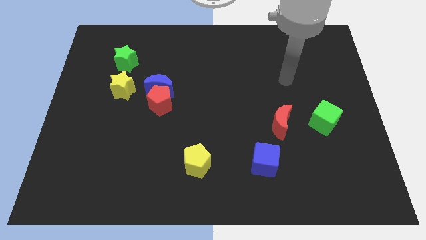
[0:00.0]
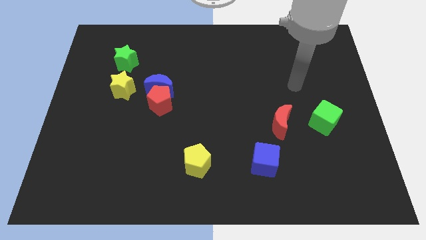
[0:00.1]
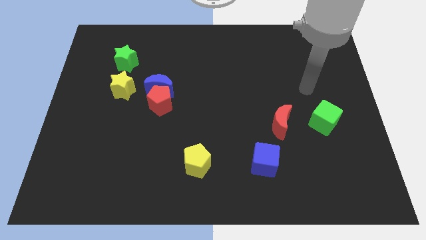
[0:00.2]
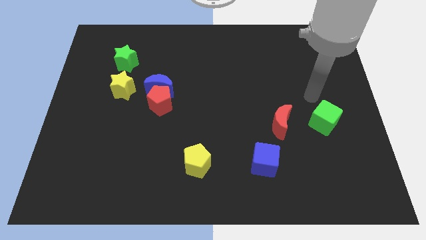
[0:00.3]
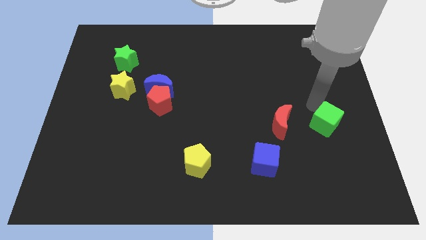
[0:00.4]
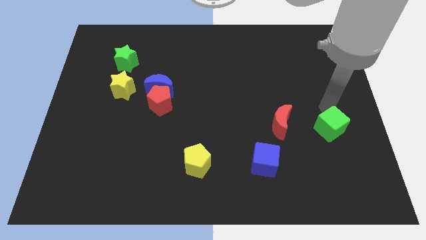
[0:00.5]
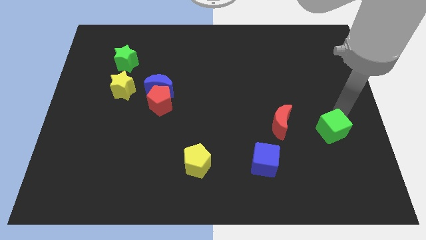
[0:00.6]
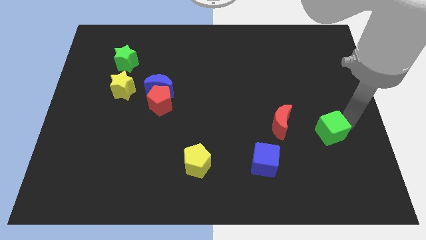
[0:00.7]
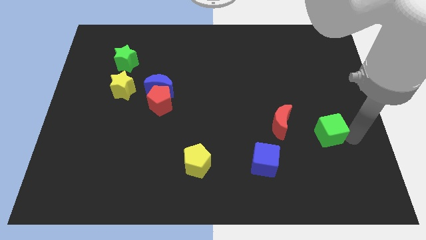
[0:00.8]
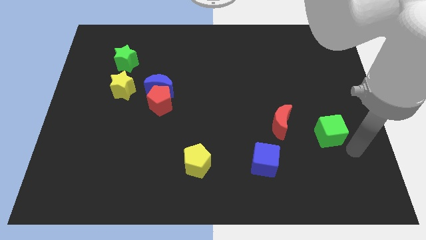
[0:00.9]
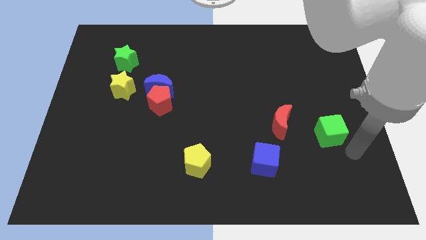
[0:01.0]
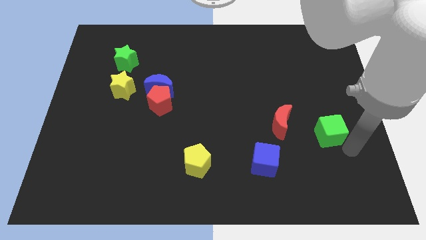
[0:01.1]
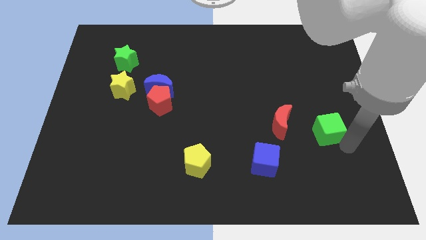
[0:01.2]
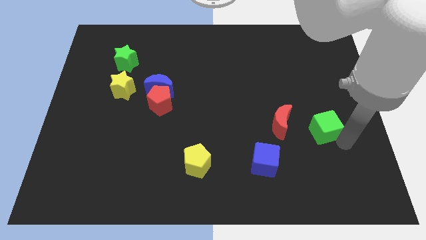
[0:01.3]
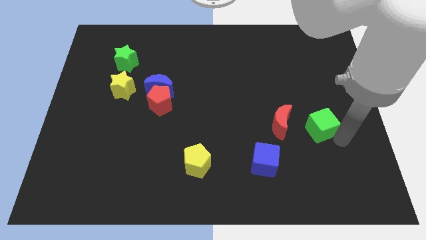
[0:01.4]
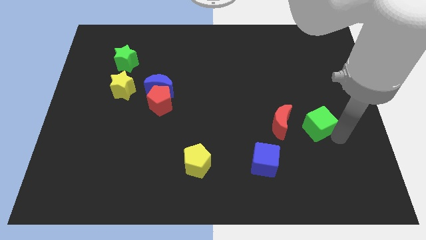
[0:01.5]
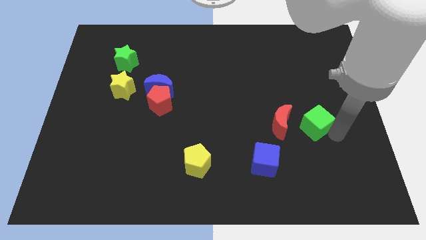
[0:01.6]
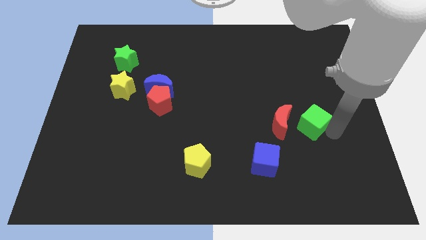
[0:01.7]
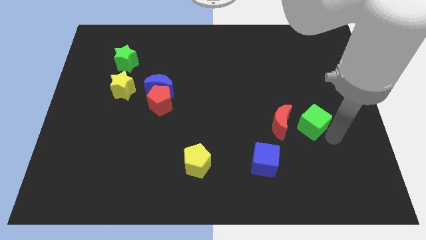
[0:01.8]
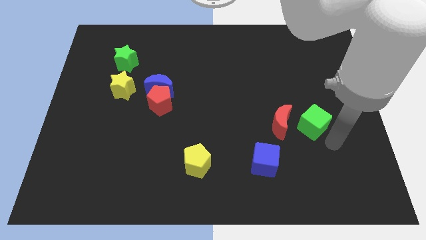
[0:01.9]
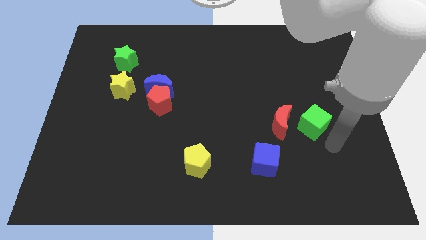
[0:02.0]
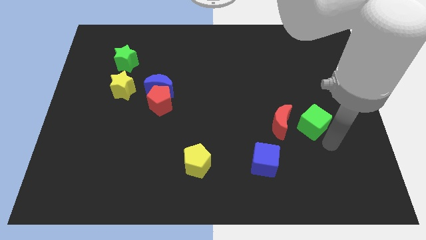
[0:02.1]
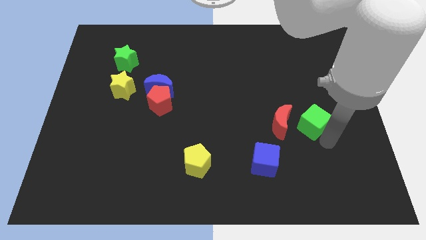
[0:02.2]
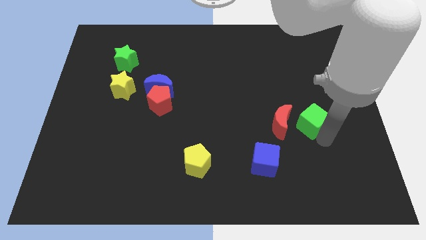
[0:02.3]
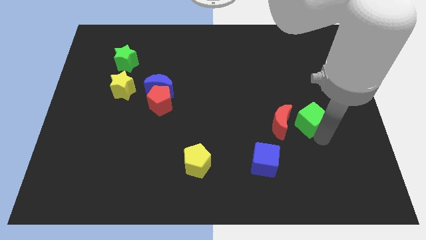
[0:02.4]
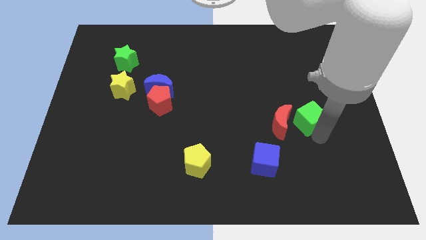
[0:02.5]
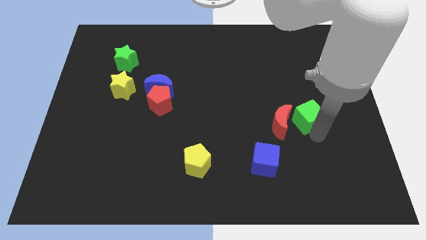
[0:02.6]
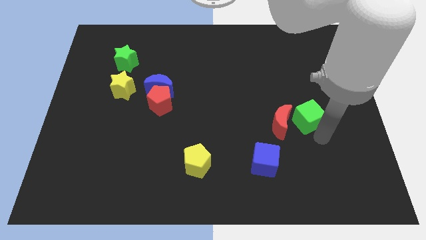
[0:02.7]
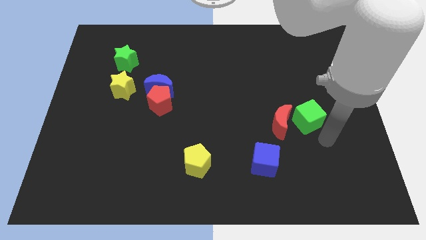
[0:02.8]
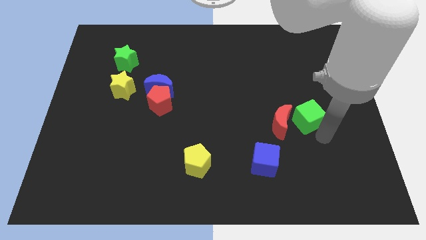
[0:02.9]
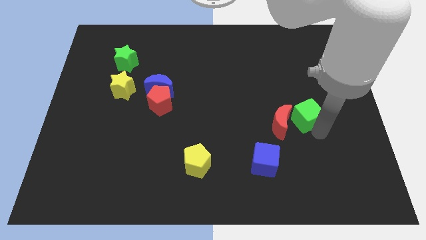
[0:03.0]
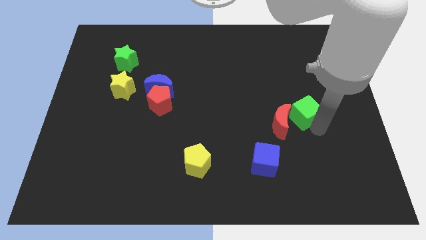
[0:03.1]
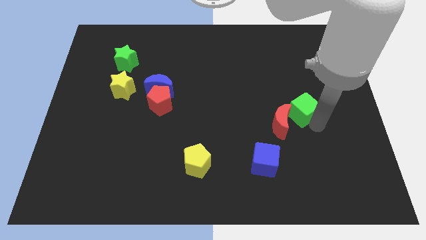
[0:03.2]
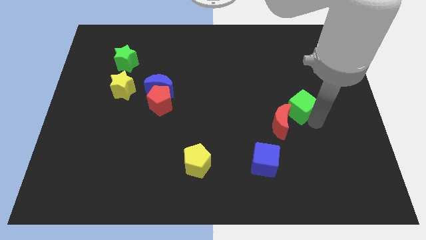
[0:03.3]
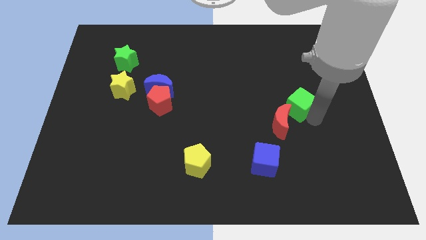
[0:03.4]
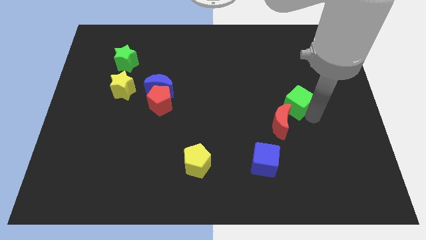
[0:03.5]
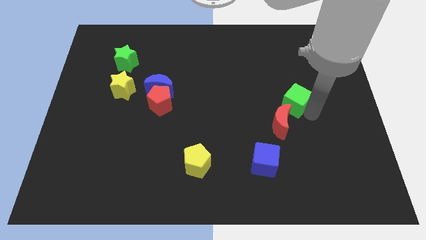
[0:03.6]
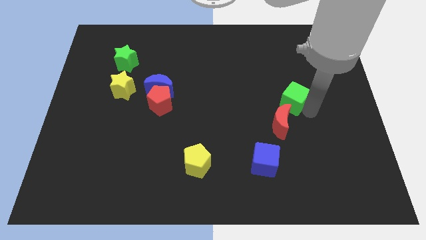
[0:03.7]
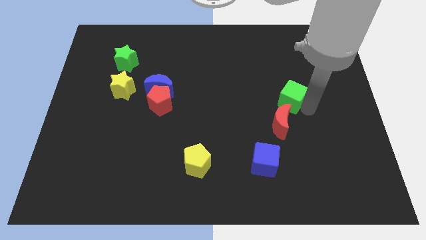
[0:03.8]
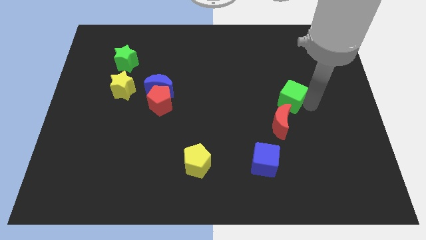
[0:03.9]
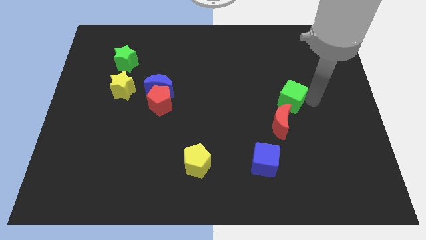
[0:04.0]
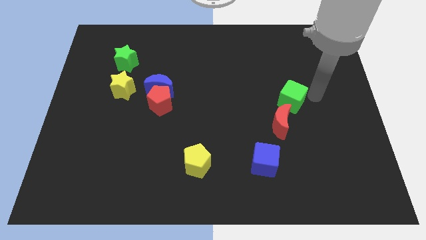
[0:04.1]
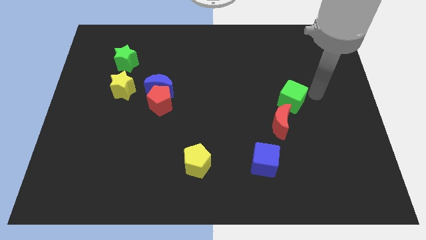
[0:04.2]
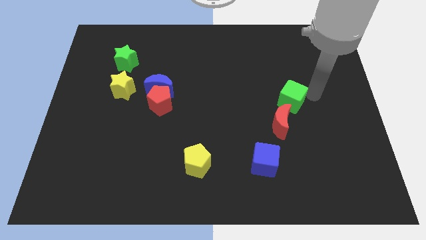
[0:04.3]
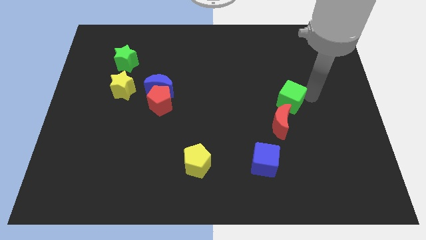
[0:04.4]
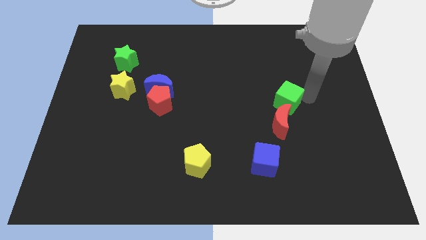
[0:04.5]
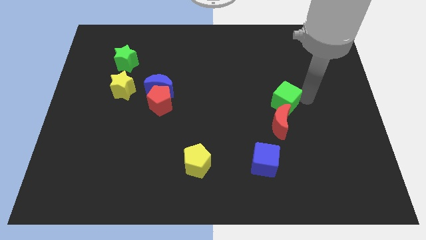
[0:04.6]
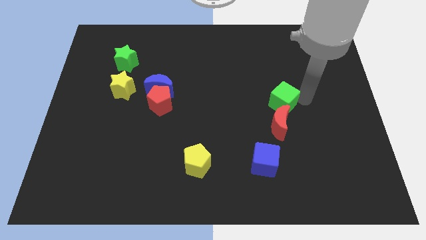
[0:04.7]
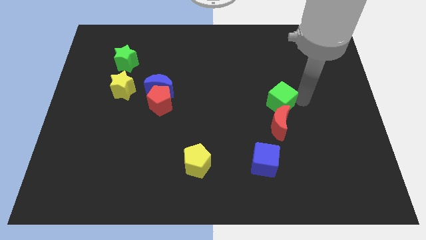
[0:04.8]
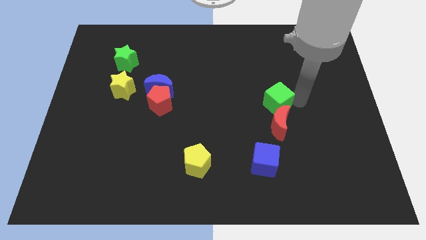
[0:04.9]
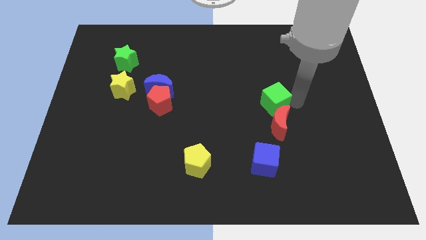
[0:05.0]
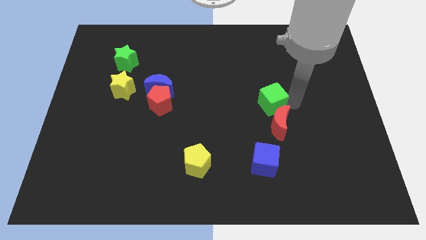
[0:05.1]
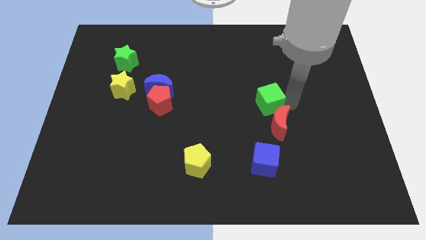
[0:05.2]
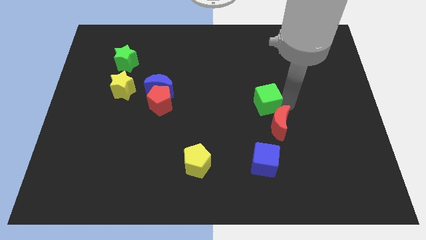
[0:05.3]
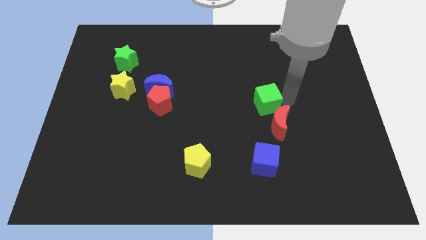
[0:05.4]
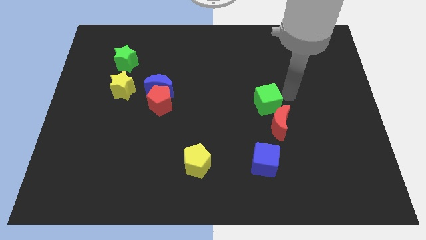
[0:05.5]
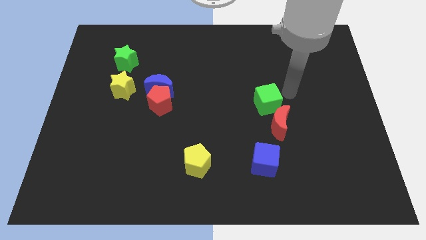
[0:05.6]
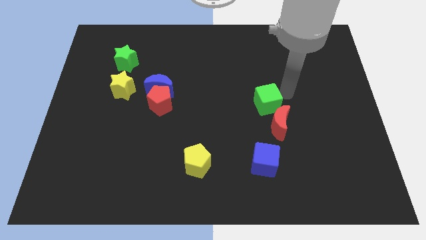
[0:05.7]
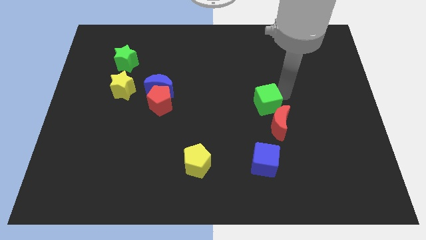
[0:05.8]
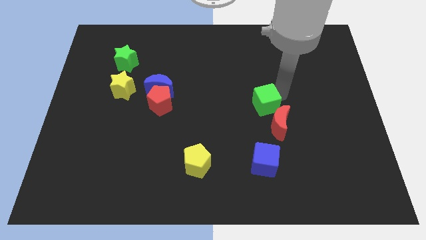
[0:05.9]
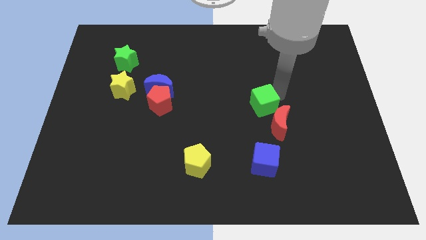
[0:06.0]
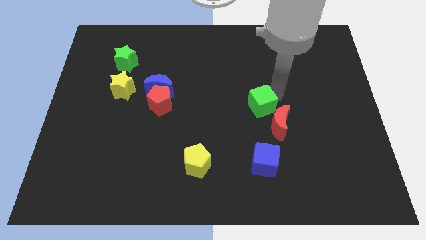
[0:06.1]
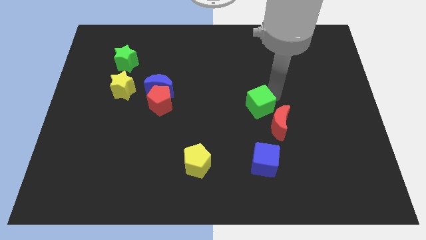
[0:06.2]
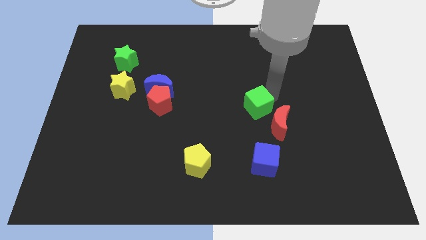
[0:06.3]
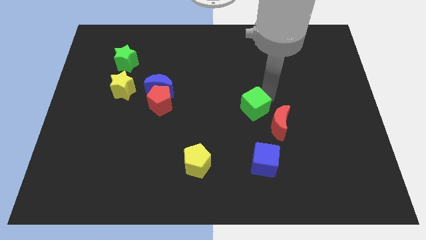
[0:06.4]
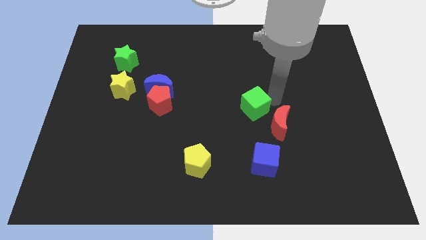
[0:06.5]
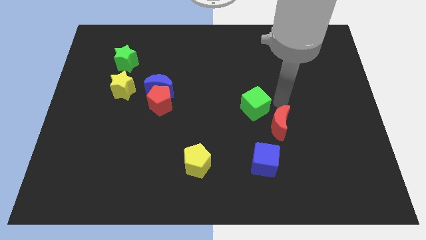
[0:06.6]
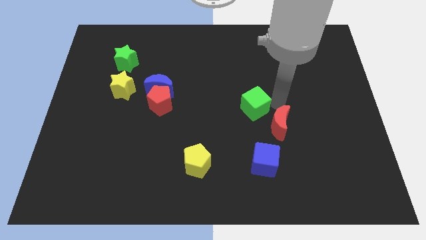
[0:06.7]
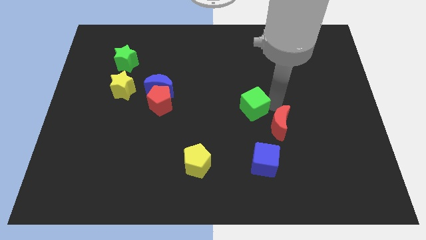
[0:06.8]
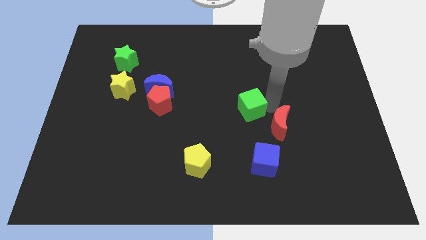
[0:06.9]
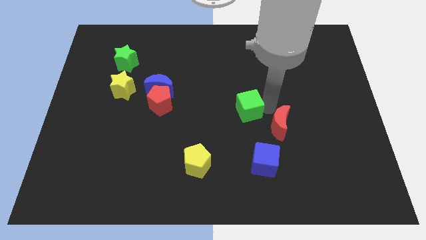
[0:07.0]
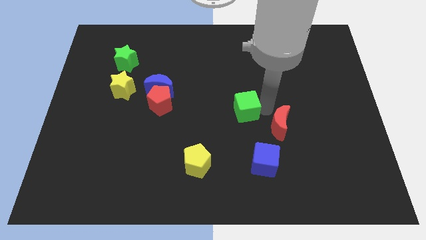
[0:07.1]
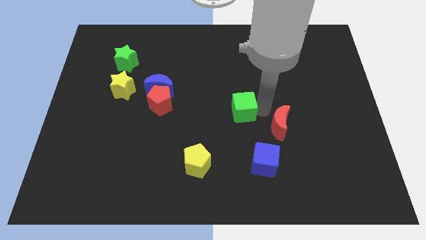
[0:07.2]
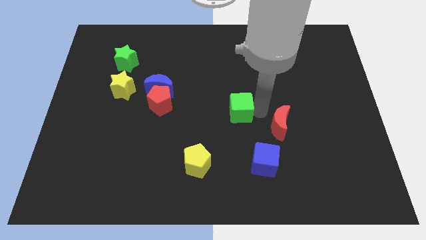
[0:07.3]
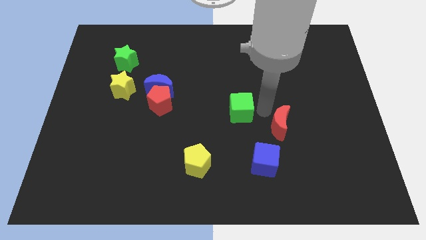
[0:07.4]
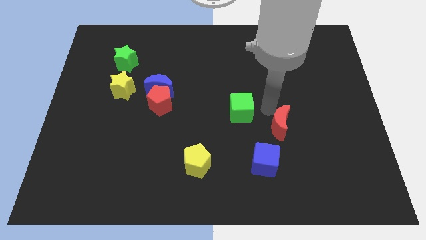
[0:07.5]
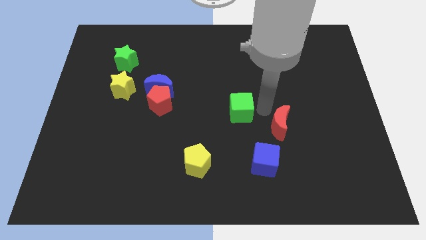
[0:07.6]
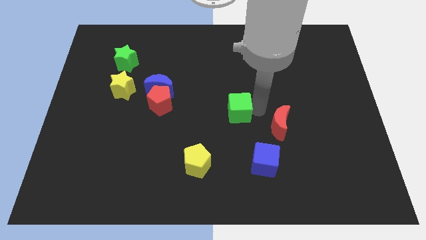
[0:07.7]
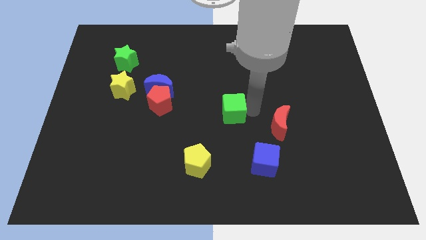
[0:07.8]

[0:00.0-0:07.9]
push the green cube left
